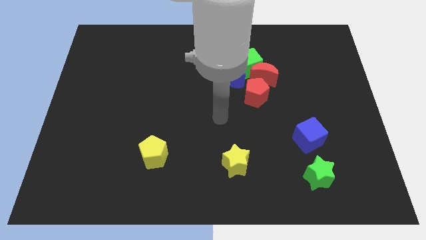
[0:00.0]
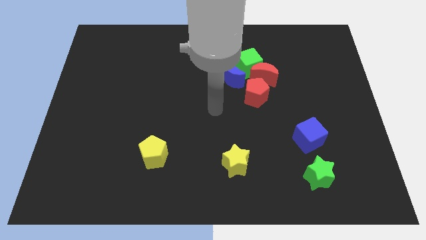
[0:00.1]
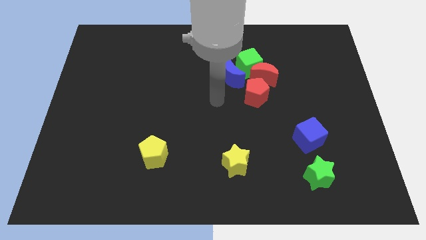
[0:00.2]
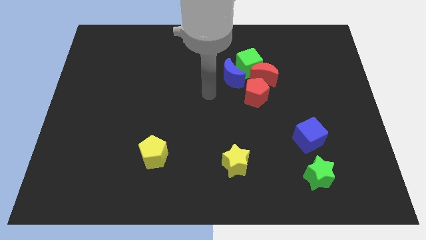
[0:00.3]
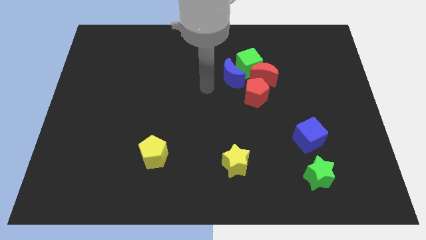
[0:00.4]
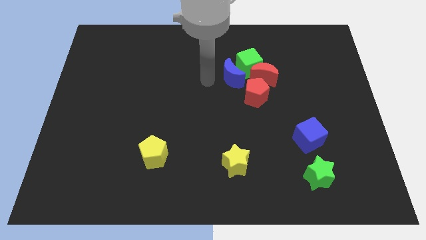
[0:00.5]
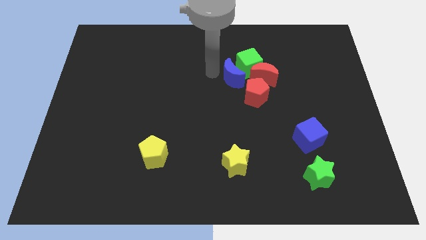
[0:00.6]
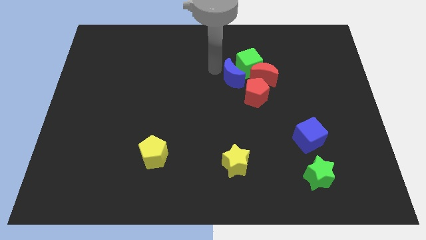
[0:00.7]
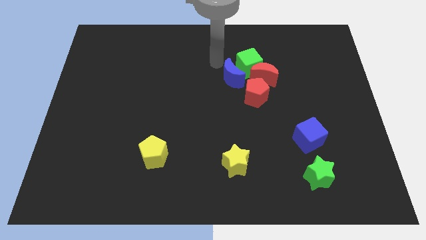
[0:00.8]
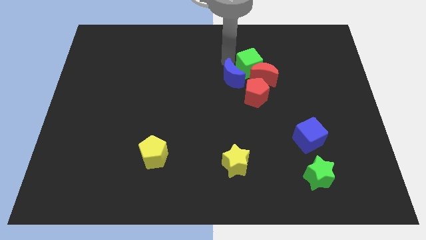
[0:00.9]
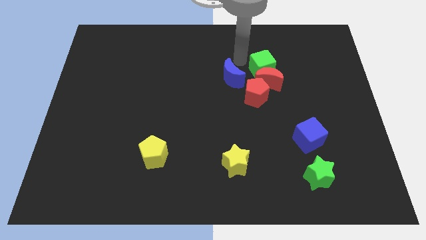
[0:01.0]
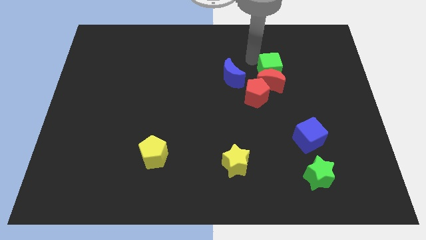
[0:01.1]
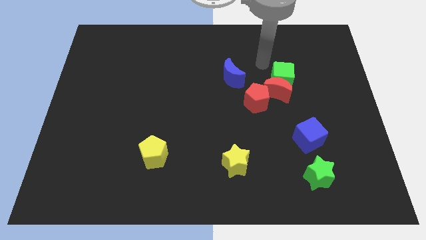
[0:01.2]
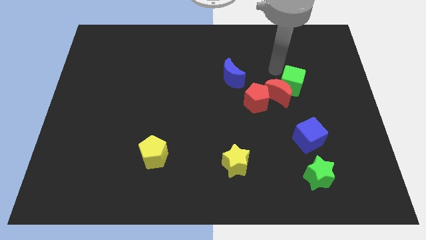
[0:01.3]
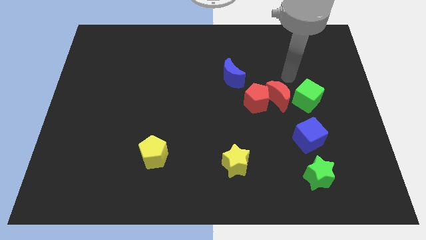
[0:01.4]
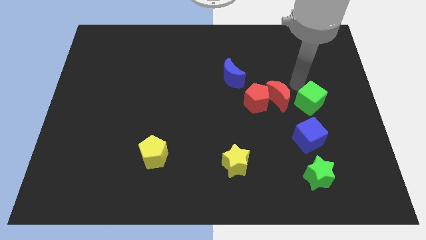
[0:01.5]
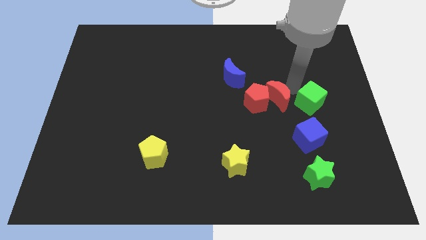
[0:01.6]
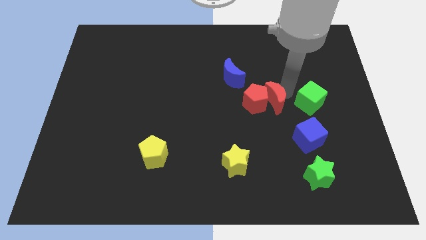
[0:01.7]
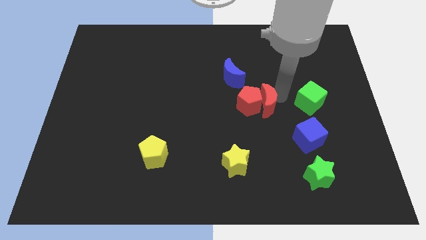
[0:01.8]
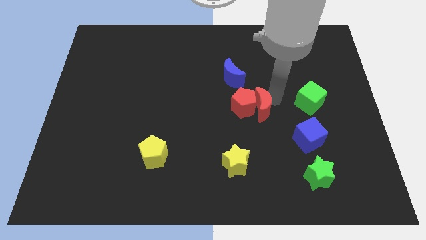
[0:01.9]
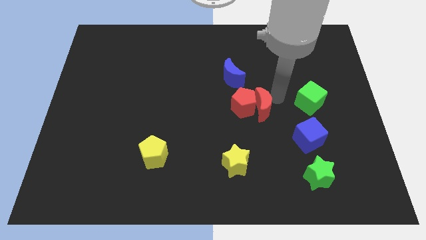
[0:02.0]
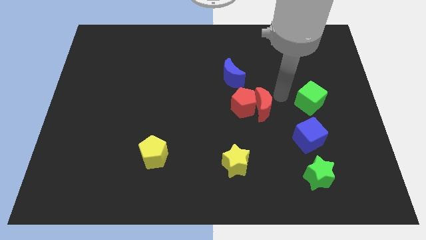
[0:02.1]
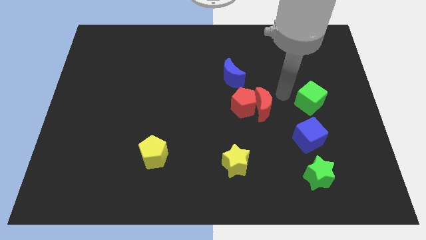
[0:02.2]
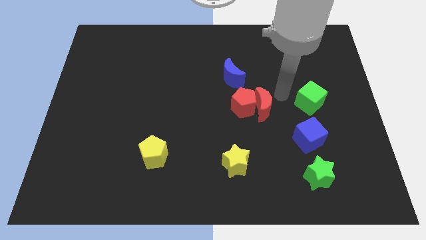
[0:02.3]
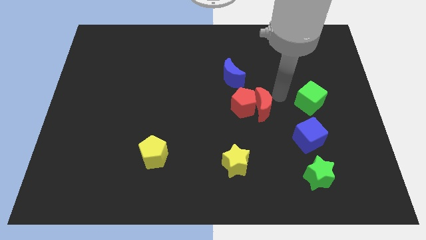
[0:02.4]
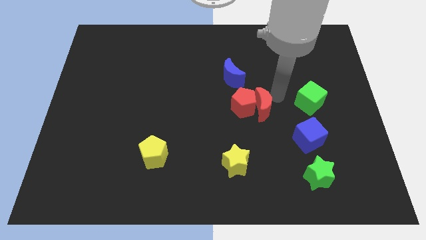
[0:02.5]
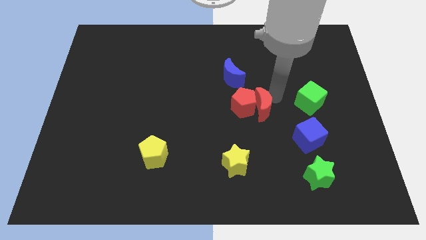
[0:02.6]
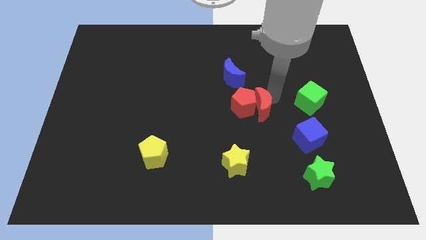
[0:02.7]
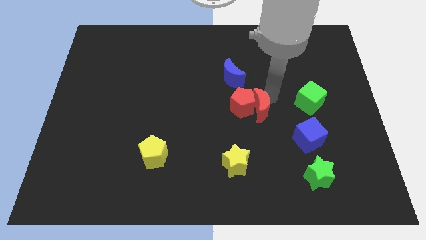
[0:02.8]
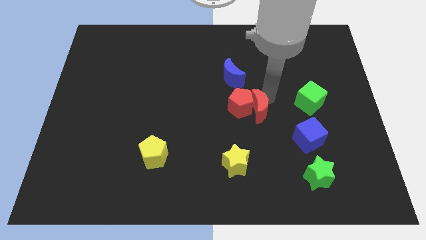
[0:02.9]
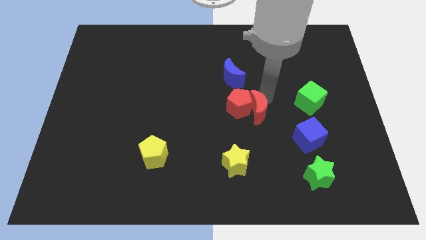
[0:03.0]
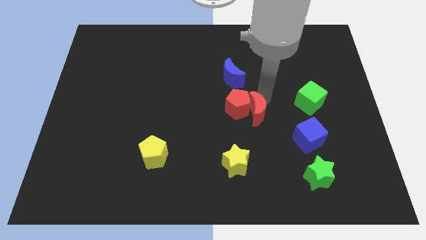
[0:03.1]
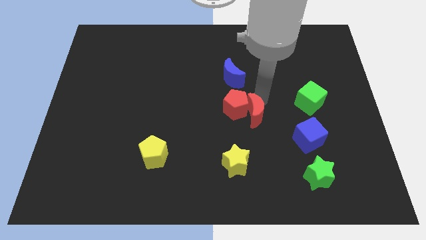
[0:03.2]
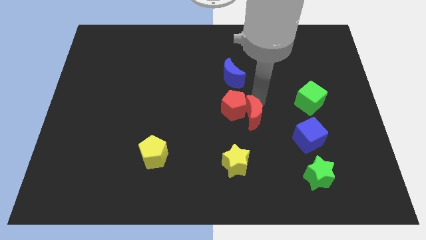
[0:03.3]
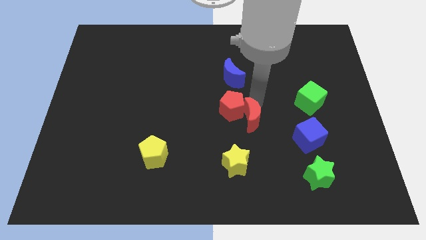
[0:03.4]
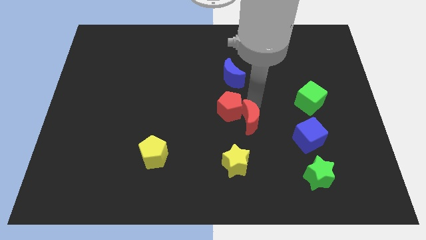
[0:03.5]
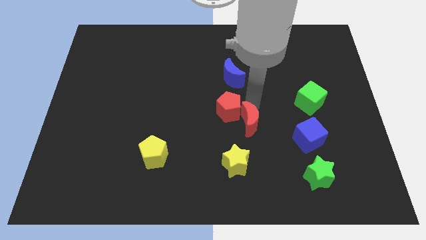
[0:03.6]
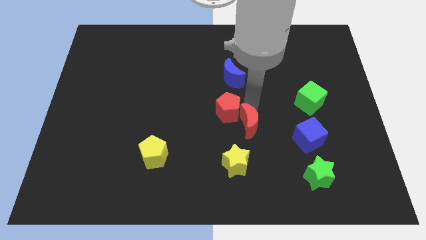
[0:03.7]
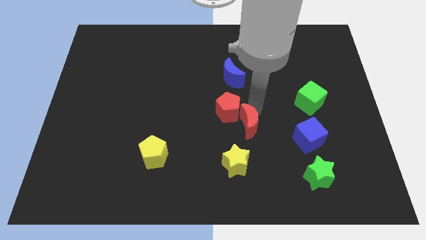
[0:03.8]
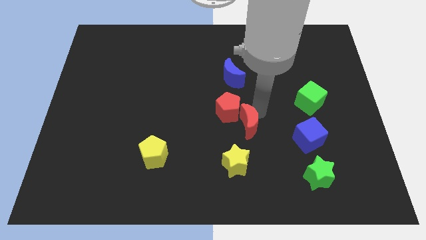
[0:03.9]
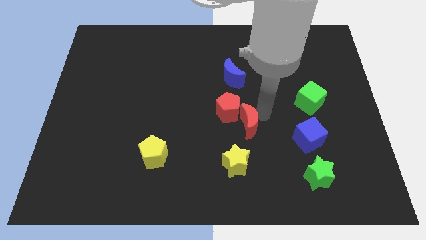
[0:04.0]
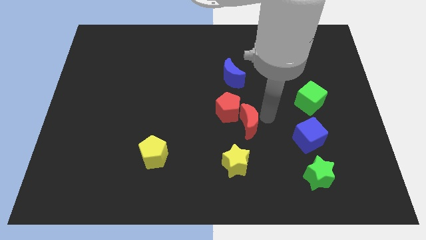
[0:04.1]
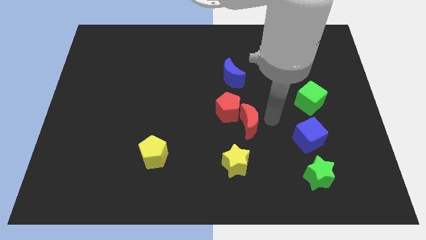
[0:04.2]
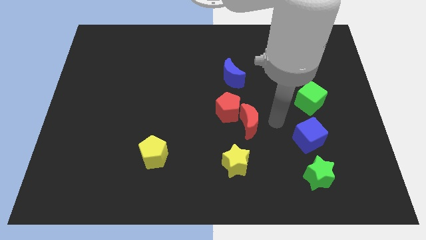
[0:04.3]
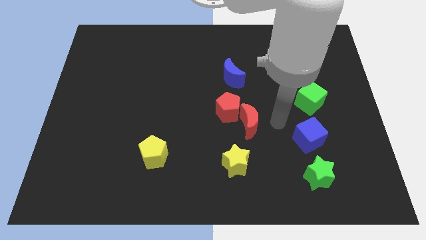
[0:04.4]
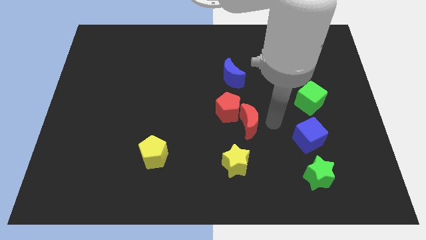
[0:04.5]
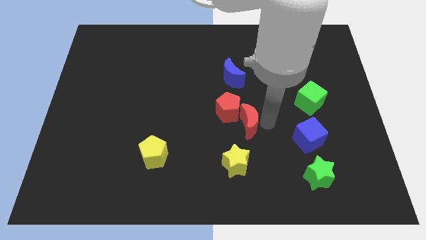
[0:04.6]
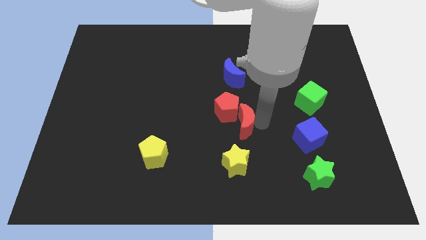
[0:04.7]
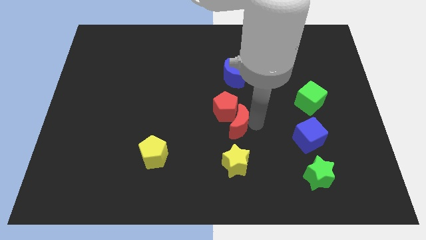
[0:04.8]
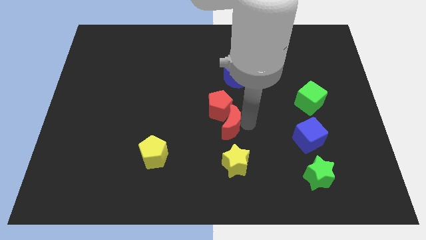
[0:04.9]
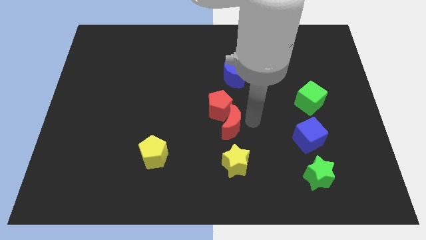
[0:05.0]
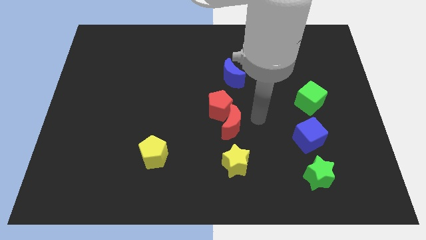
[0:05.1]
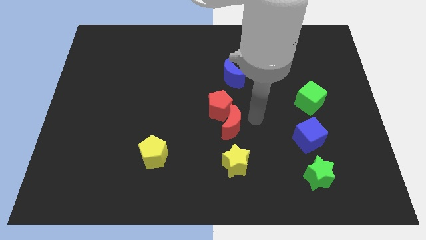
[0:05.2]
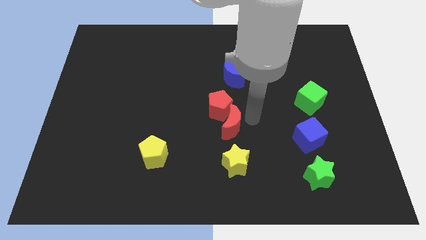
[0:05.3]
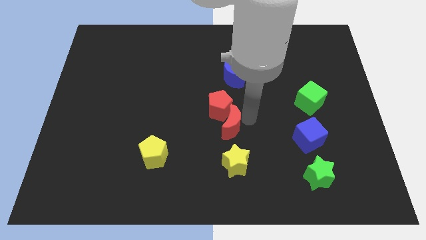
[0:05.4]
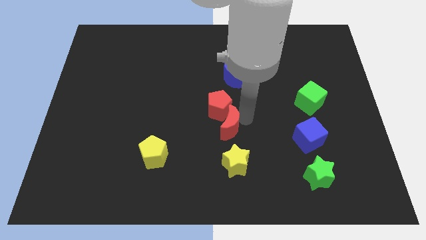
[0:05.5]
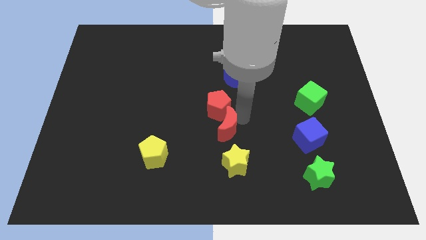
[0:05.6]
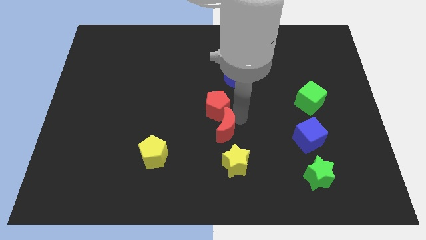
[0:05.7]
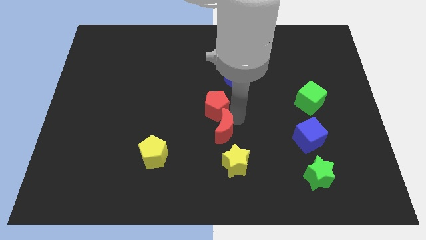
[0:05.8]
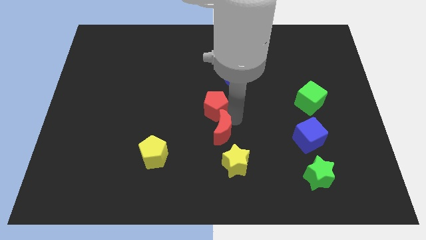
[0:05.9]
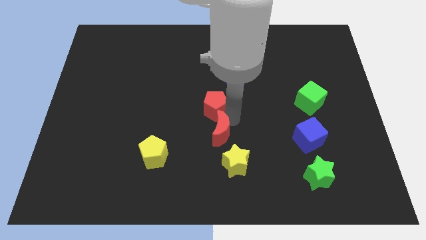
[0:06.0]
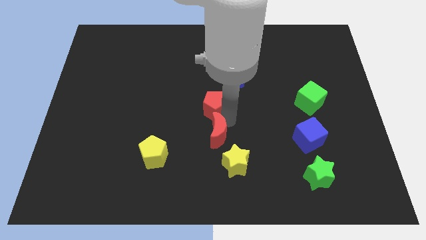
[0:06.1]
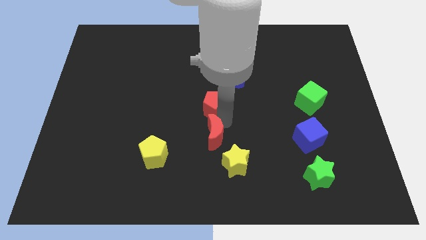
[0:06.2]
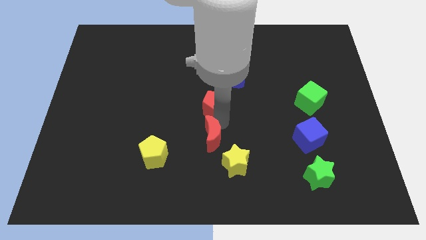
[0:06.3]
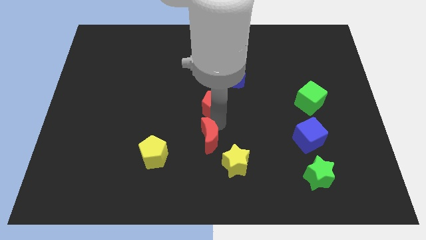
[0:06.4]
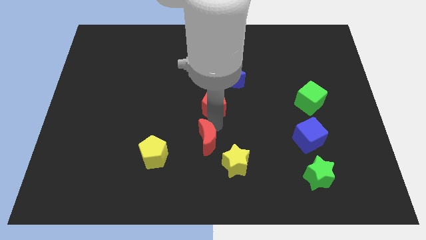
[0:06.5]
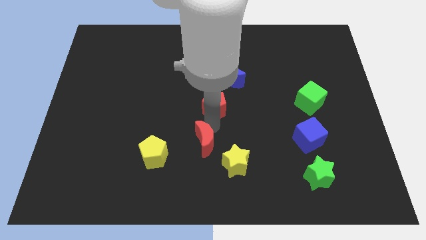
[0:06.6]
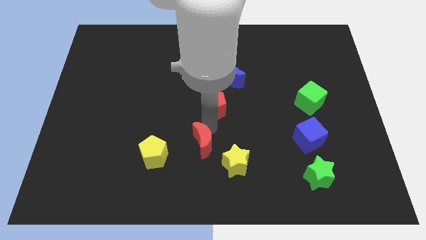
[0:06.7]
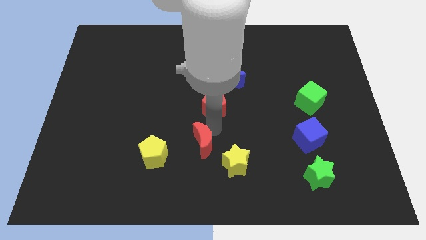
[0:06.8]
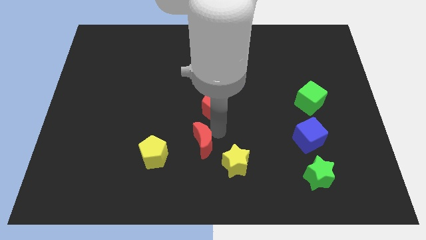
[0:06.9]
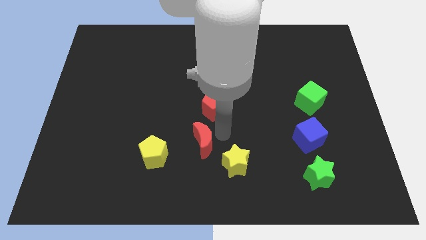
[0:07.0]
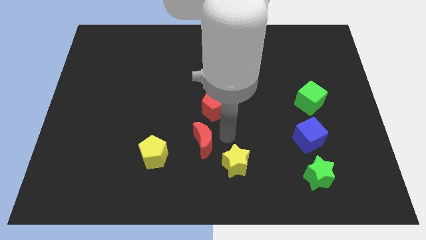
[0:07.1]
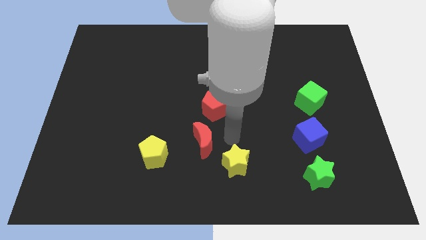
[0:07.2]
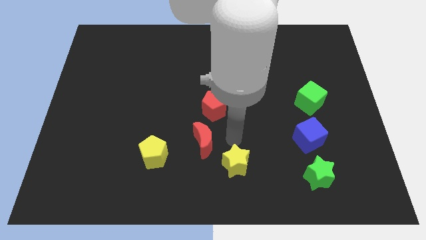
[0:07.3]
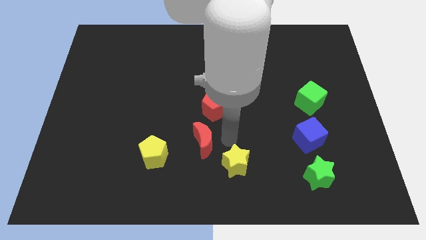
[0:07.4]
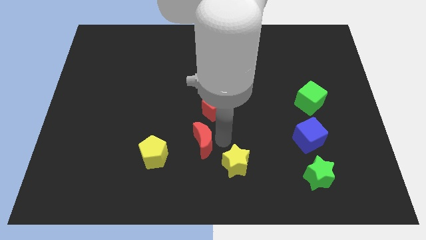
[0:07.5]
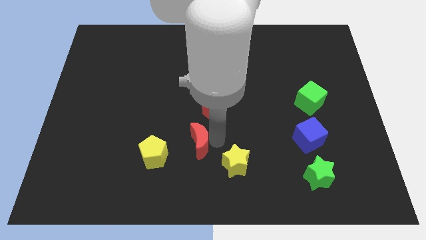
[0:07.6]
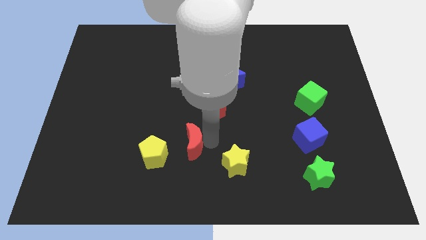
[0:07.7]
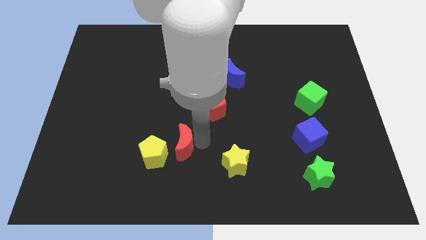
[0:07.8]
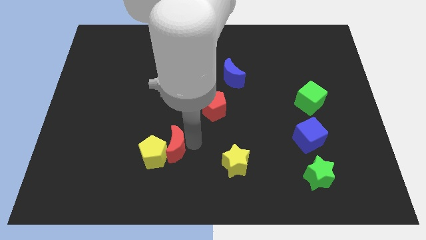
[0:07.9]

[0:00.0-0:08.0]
move the red moon towards the yellow pentagon
